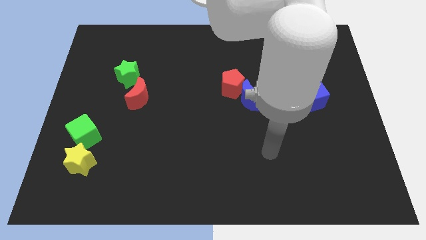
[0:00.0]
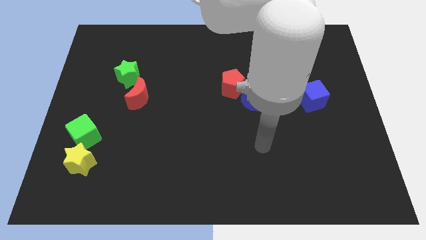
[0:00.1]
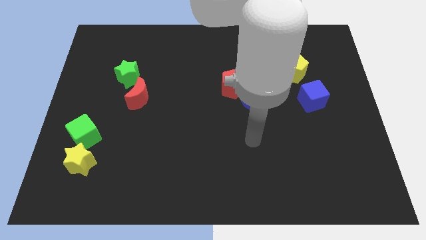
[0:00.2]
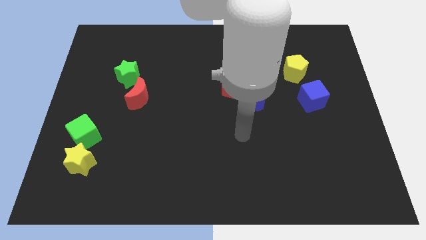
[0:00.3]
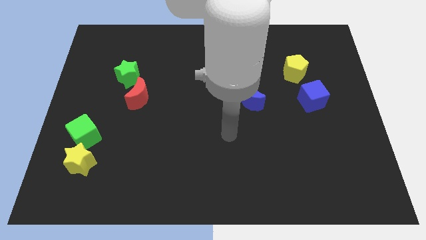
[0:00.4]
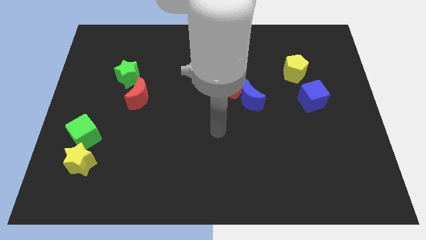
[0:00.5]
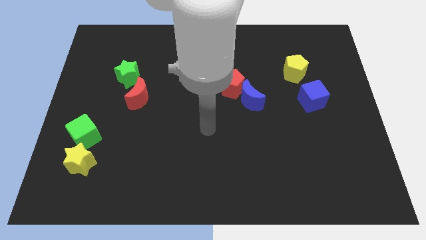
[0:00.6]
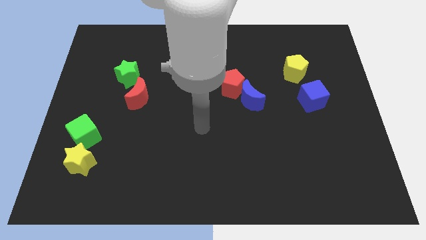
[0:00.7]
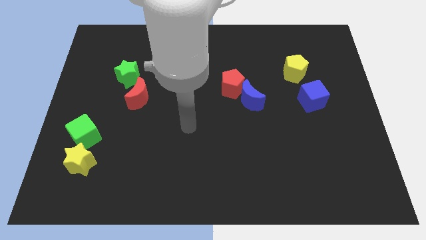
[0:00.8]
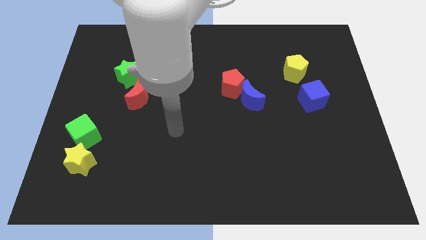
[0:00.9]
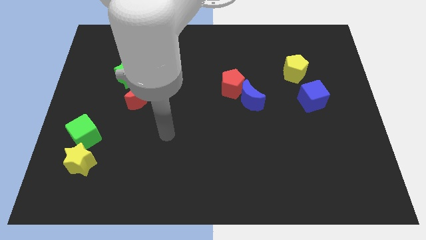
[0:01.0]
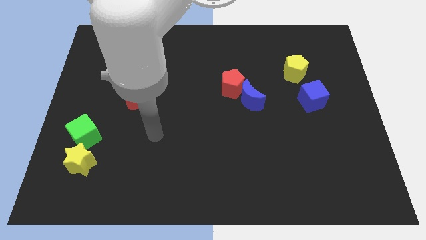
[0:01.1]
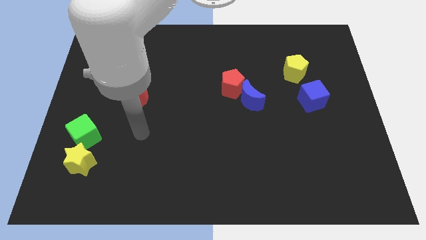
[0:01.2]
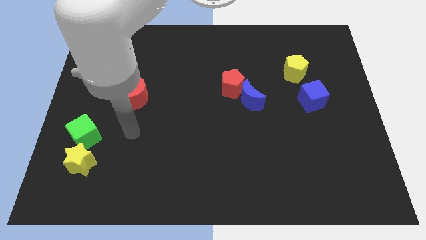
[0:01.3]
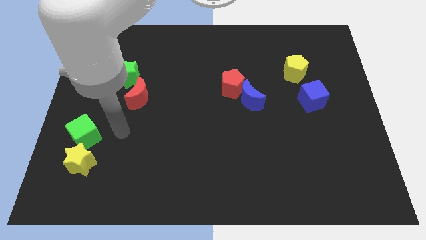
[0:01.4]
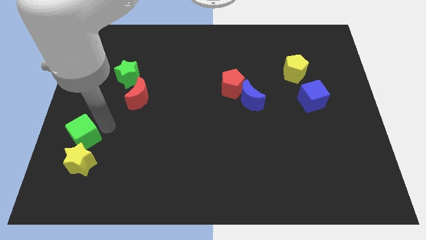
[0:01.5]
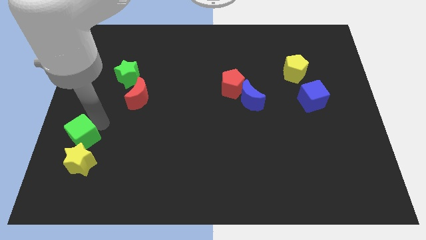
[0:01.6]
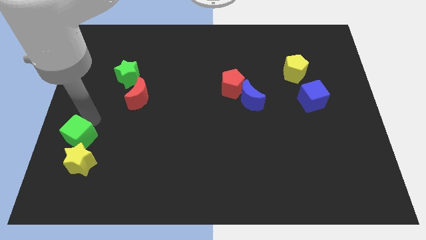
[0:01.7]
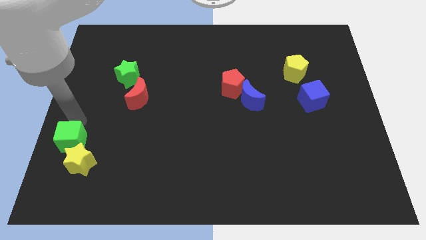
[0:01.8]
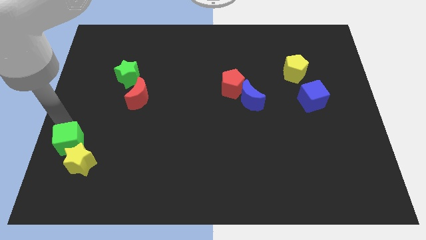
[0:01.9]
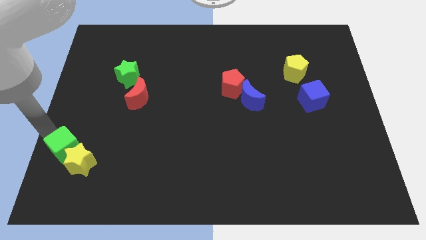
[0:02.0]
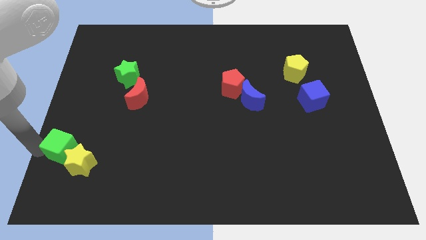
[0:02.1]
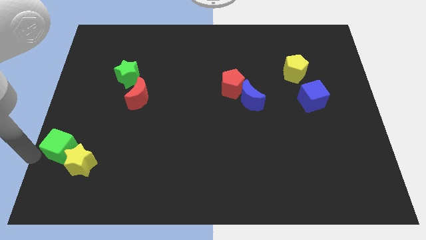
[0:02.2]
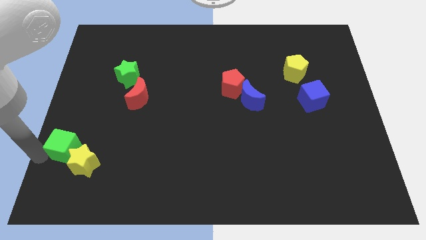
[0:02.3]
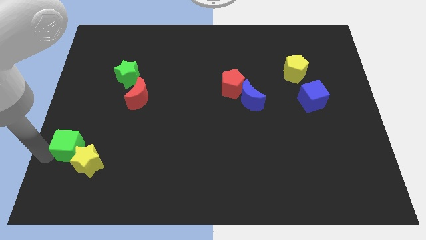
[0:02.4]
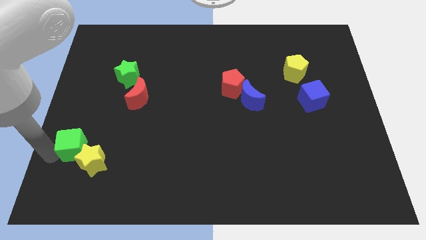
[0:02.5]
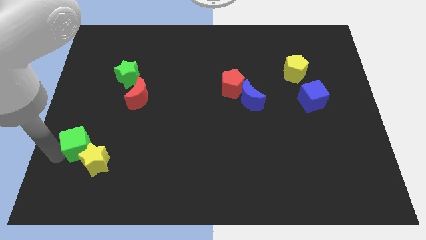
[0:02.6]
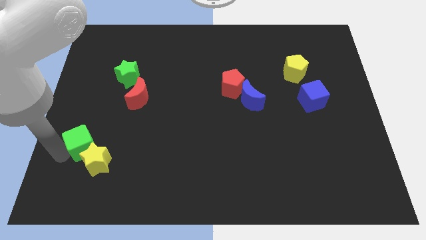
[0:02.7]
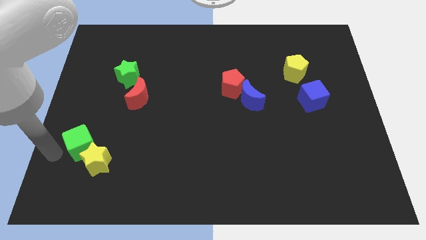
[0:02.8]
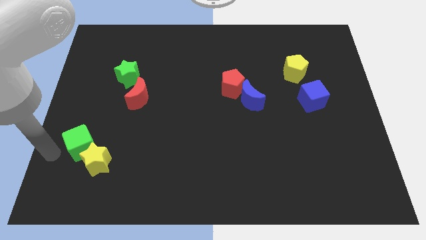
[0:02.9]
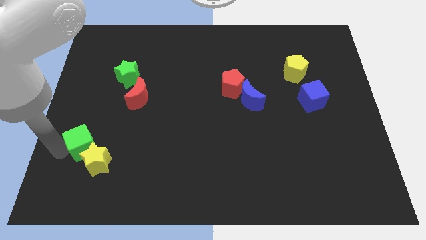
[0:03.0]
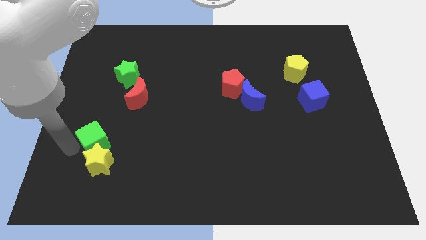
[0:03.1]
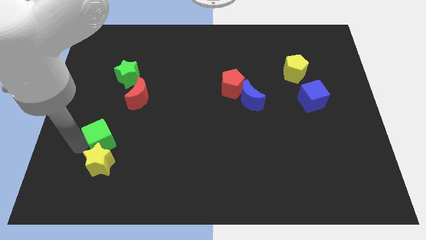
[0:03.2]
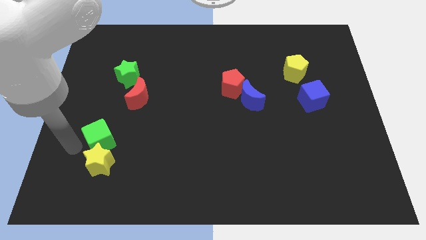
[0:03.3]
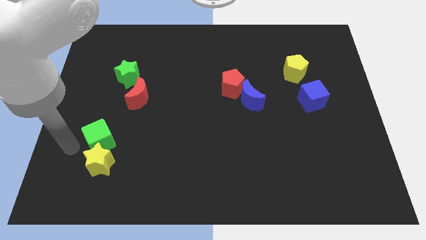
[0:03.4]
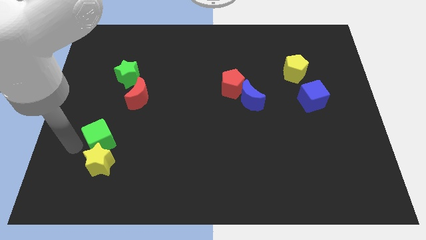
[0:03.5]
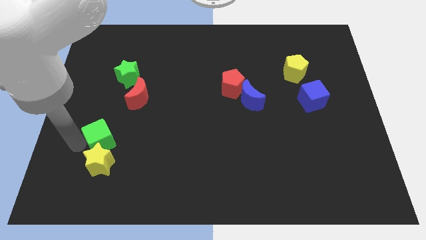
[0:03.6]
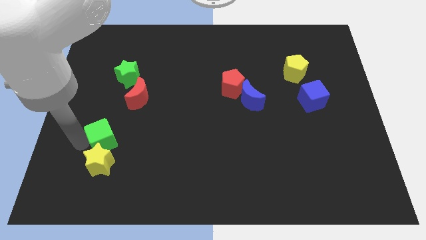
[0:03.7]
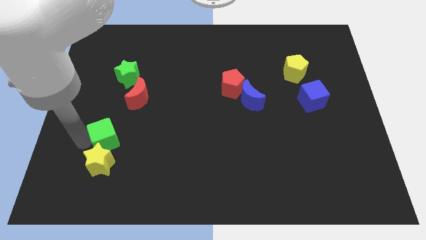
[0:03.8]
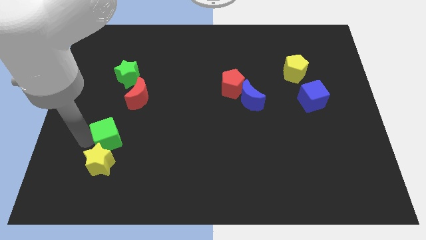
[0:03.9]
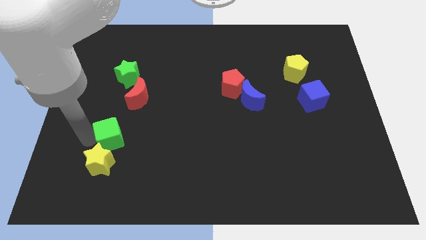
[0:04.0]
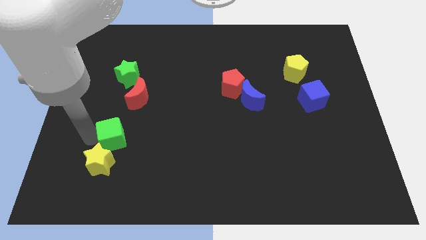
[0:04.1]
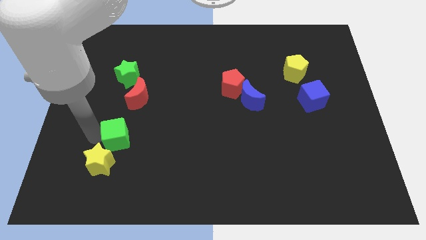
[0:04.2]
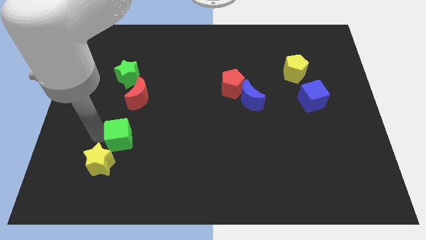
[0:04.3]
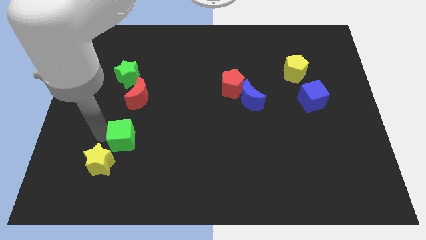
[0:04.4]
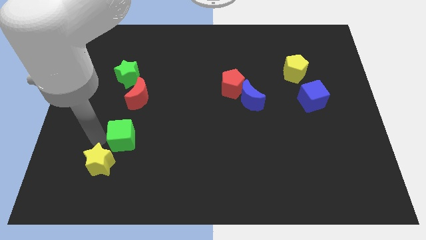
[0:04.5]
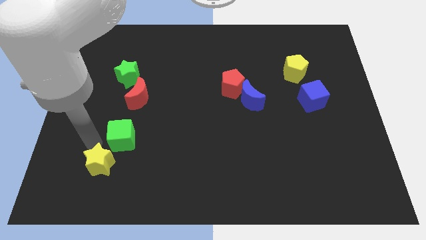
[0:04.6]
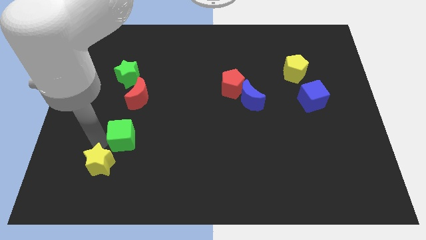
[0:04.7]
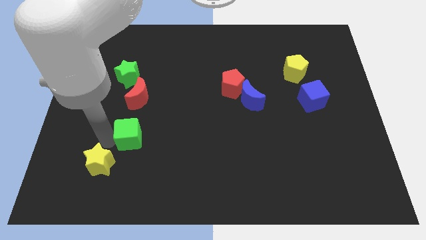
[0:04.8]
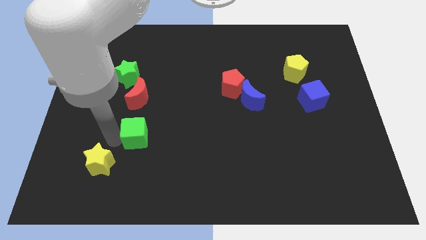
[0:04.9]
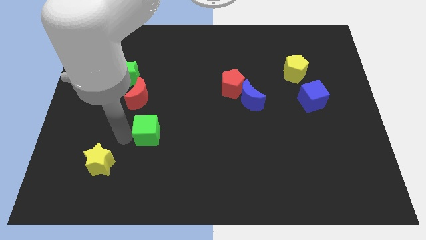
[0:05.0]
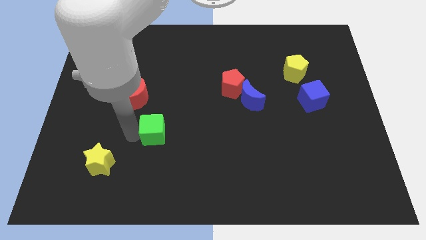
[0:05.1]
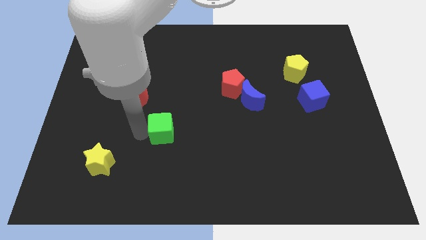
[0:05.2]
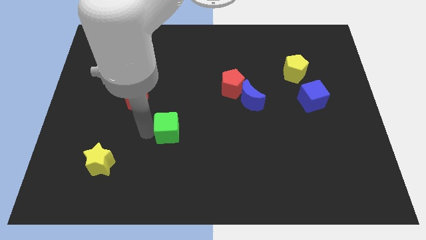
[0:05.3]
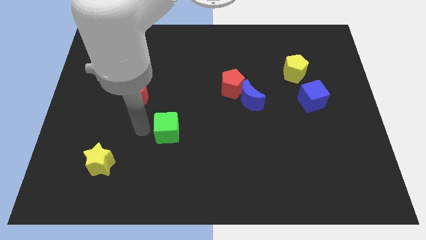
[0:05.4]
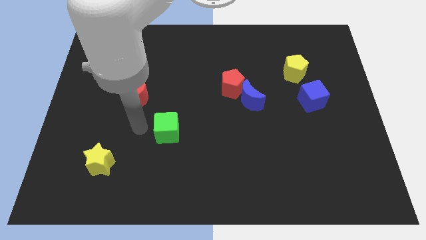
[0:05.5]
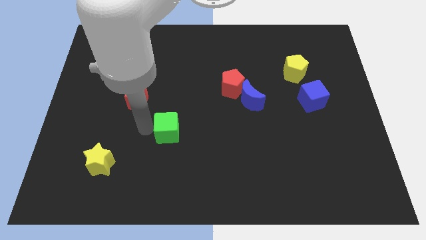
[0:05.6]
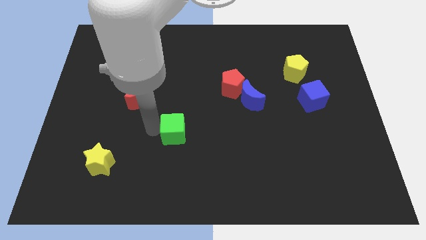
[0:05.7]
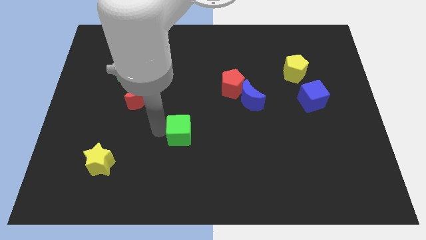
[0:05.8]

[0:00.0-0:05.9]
slide the green cube to the right

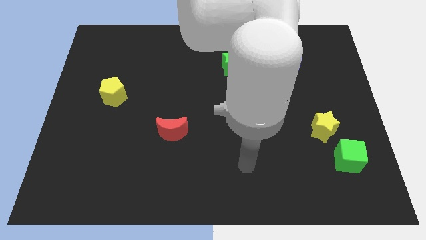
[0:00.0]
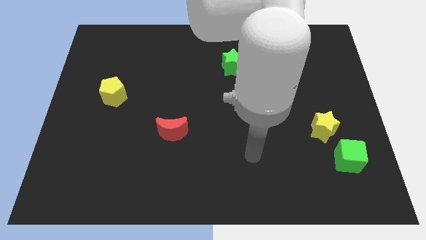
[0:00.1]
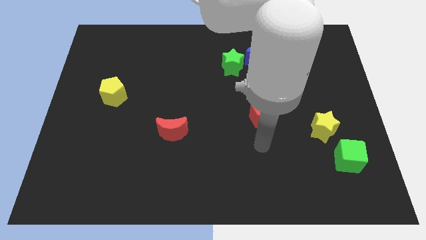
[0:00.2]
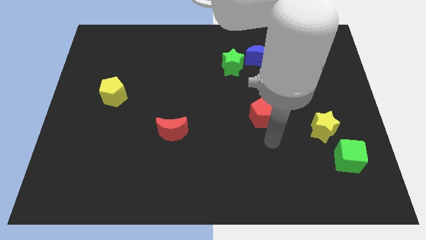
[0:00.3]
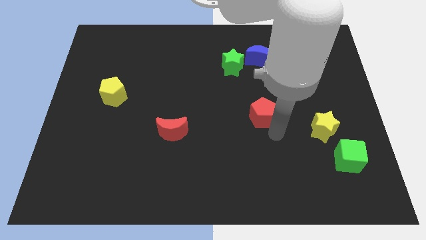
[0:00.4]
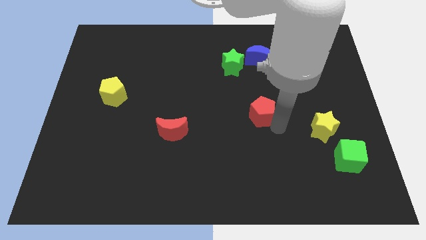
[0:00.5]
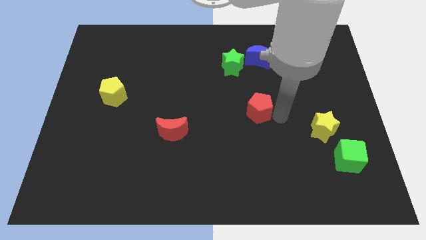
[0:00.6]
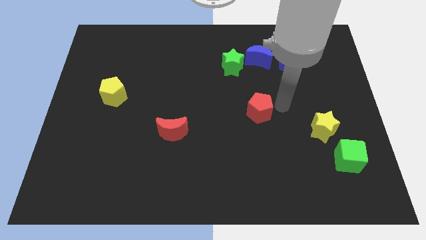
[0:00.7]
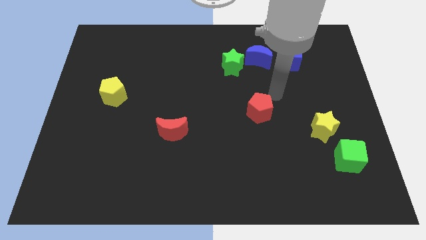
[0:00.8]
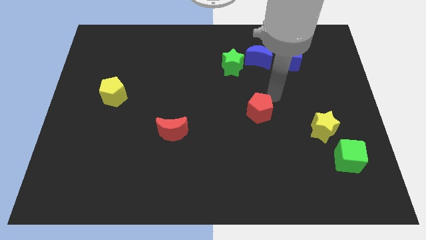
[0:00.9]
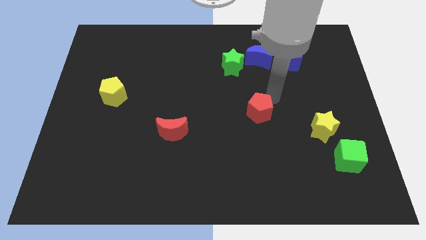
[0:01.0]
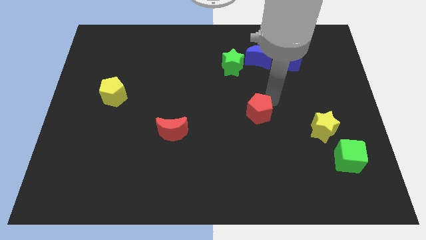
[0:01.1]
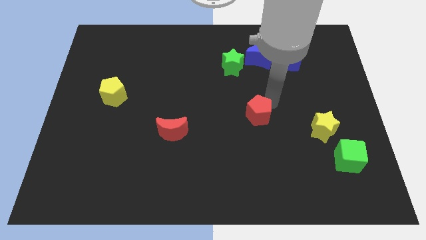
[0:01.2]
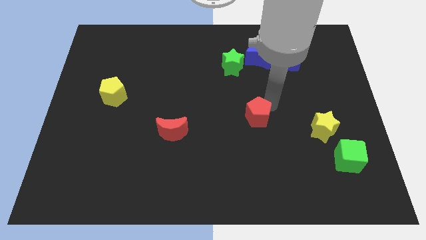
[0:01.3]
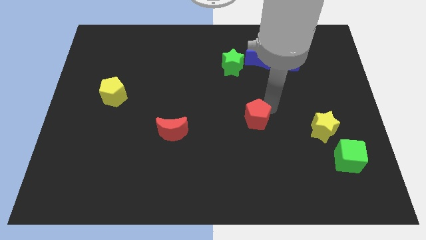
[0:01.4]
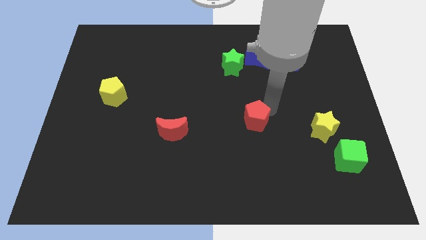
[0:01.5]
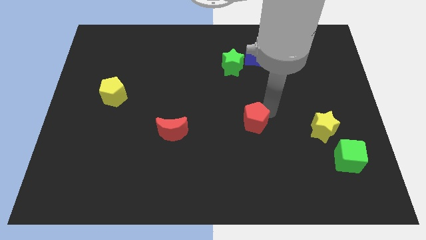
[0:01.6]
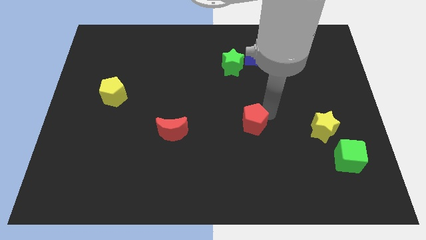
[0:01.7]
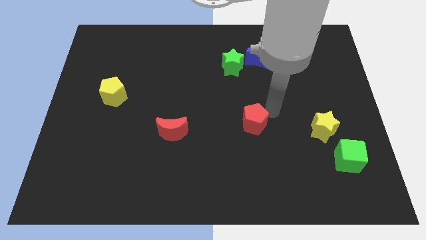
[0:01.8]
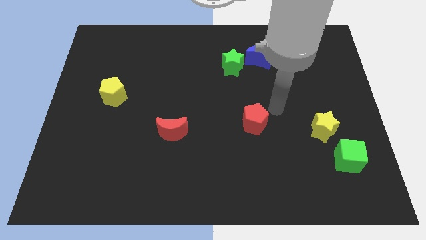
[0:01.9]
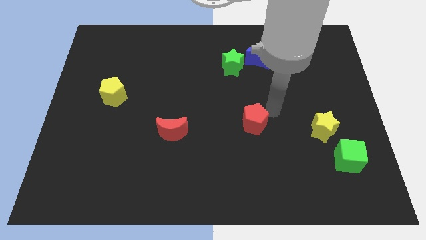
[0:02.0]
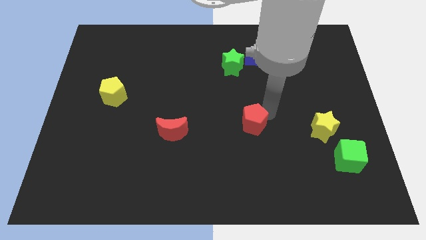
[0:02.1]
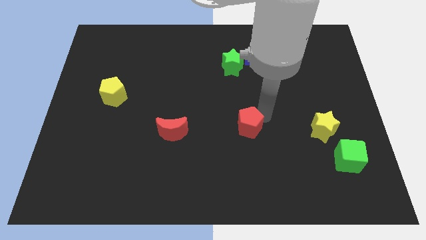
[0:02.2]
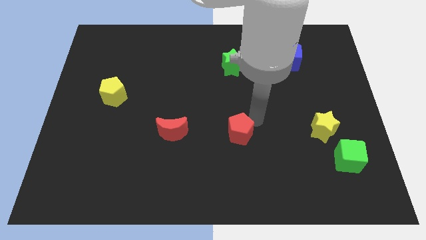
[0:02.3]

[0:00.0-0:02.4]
push the red pentagon downwards and then to the left a little
